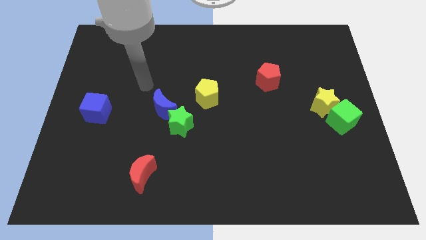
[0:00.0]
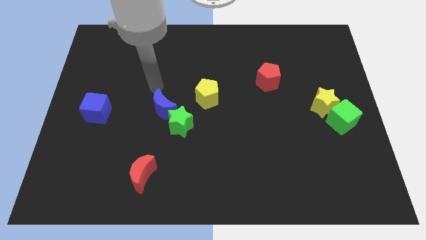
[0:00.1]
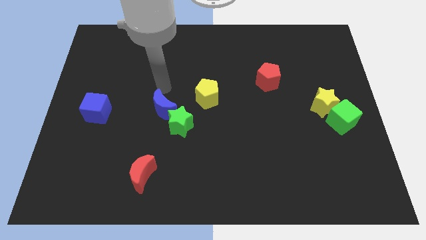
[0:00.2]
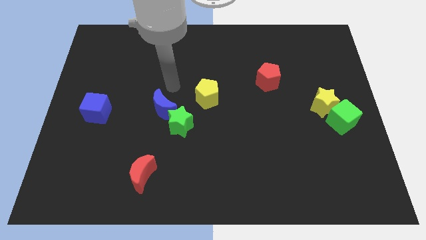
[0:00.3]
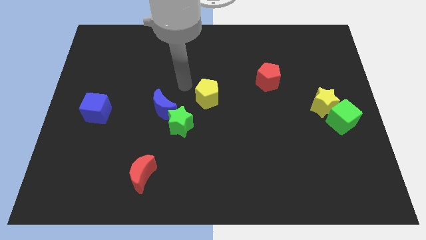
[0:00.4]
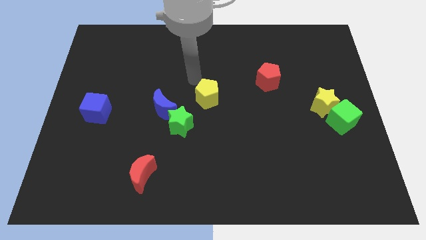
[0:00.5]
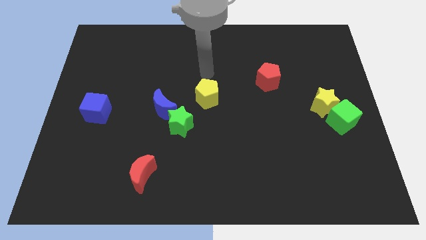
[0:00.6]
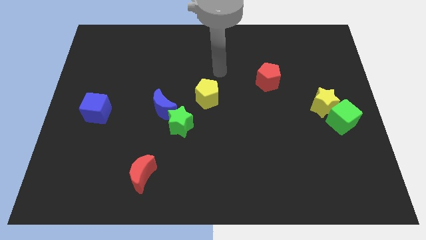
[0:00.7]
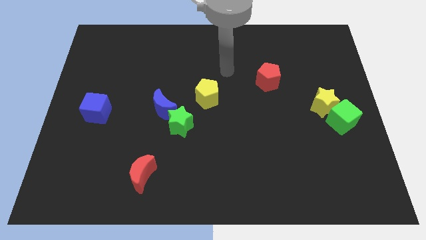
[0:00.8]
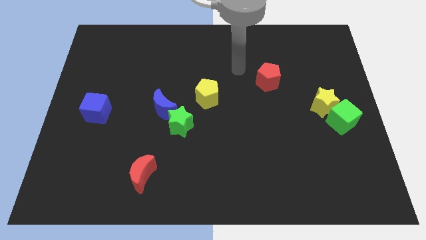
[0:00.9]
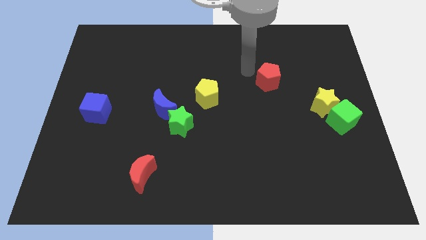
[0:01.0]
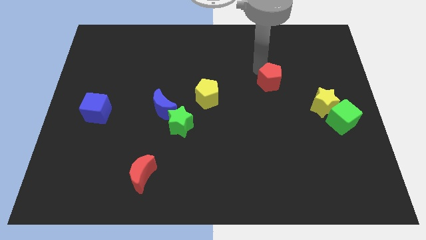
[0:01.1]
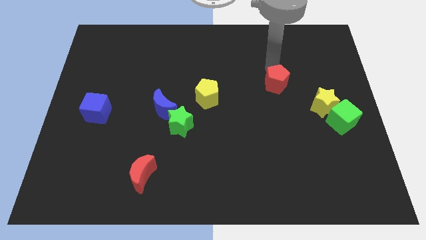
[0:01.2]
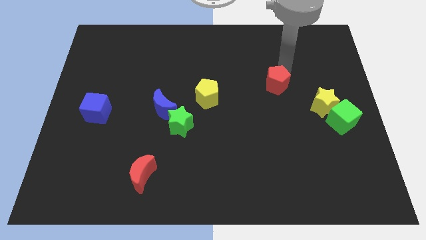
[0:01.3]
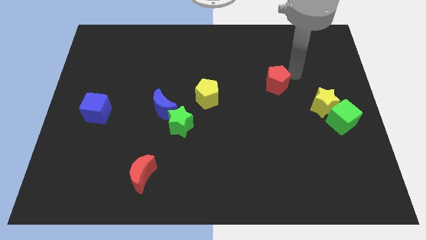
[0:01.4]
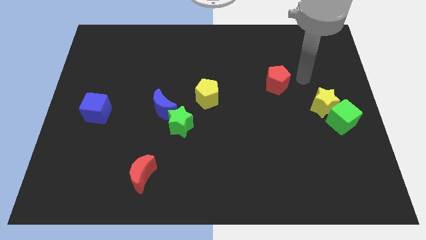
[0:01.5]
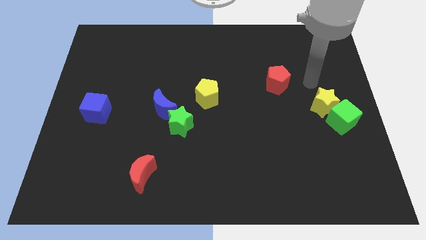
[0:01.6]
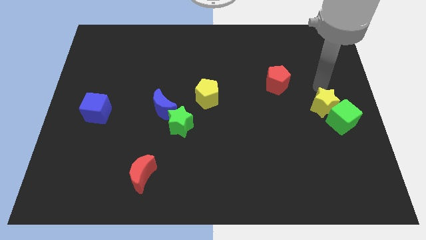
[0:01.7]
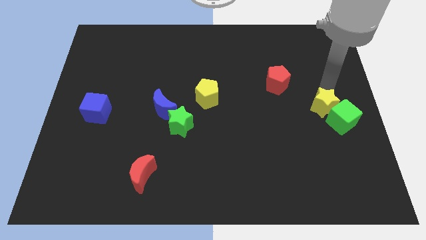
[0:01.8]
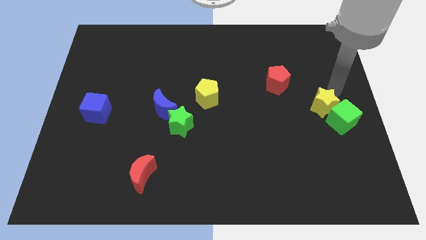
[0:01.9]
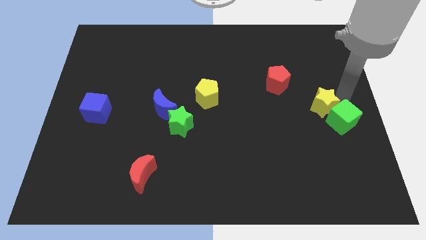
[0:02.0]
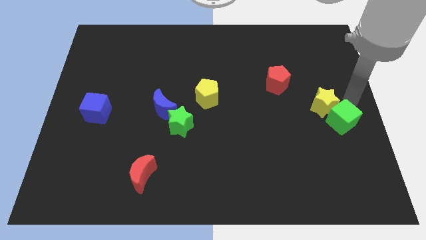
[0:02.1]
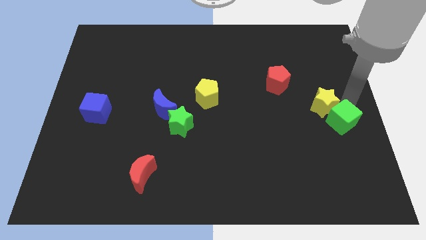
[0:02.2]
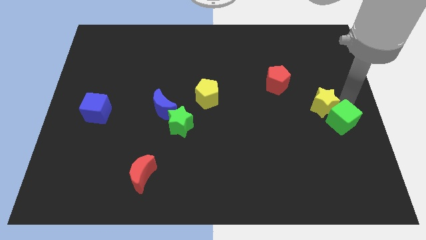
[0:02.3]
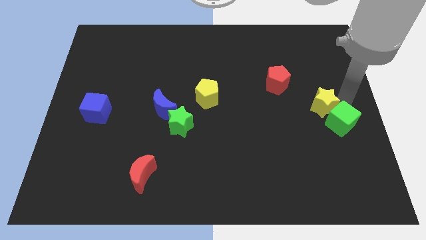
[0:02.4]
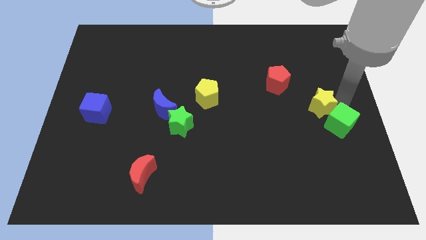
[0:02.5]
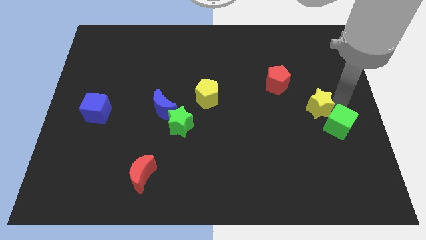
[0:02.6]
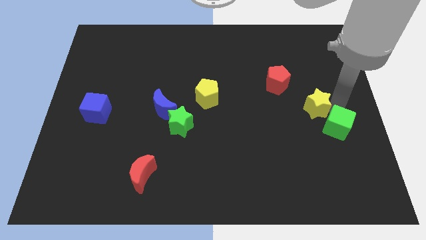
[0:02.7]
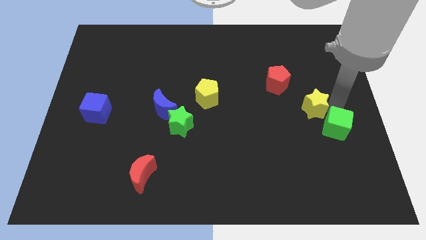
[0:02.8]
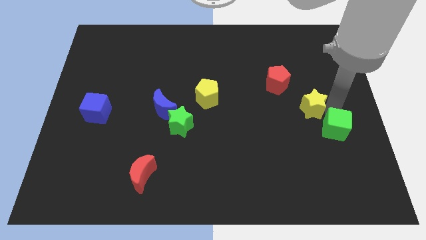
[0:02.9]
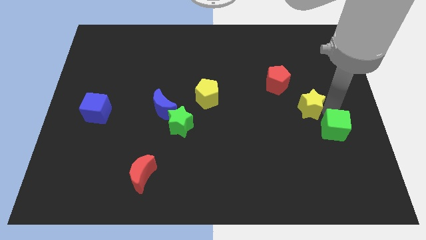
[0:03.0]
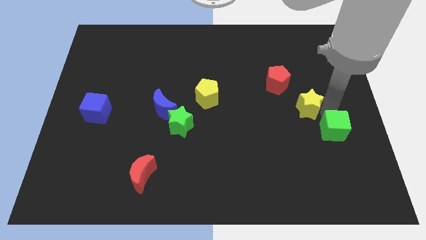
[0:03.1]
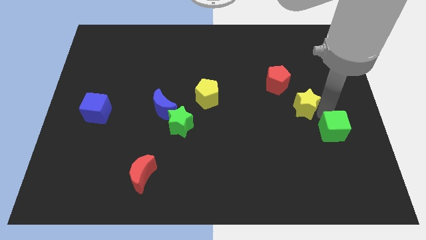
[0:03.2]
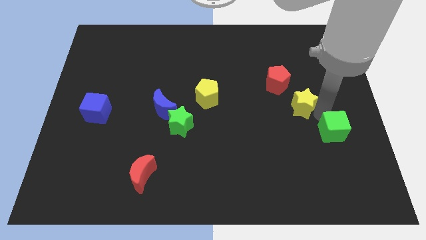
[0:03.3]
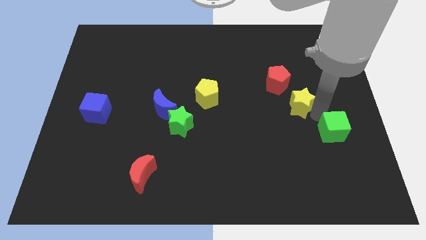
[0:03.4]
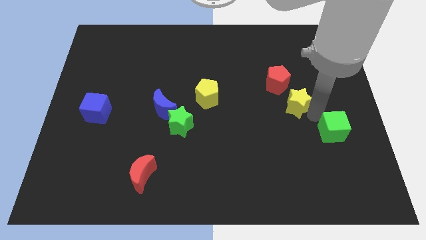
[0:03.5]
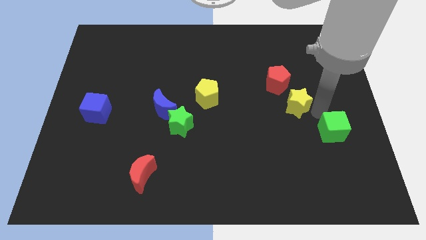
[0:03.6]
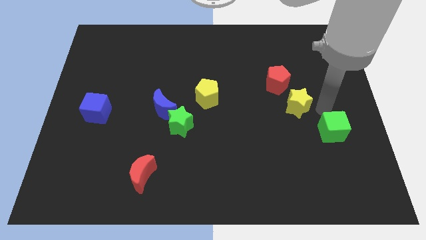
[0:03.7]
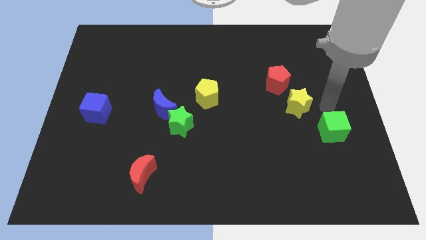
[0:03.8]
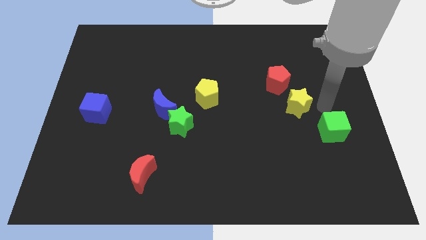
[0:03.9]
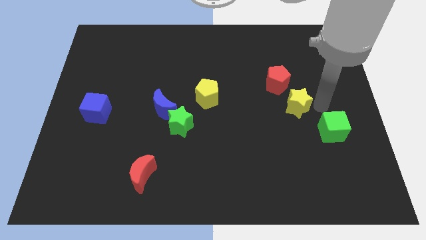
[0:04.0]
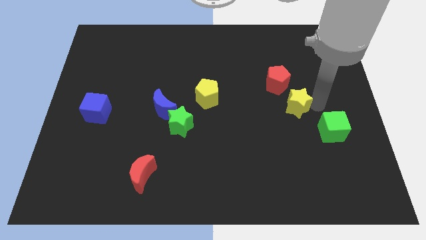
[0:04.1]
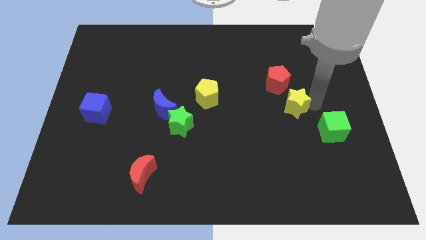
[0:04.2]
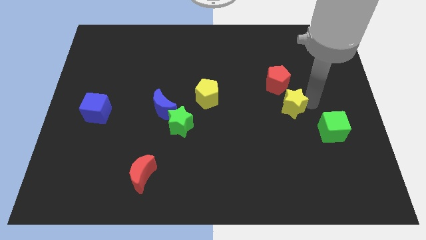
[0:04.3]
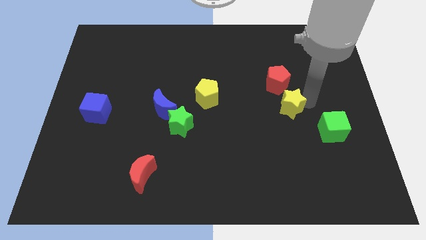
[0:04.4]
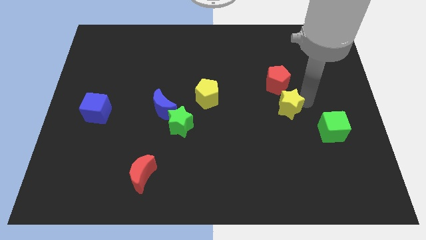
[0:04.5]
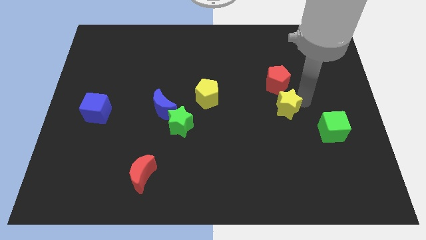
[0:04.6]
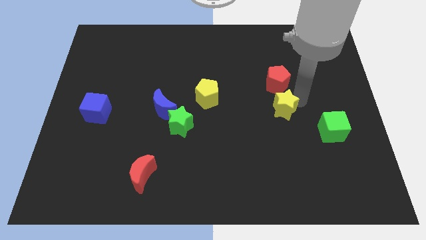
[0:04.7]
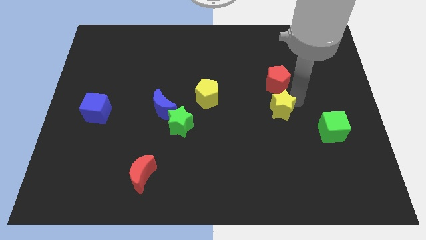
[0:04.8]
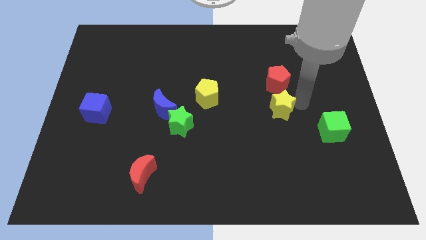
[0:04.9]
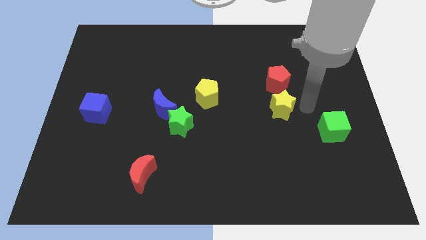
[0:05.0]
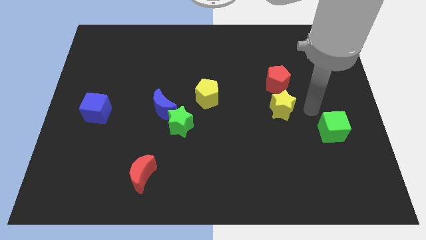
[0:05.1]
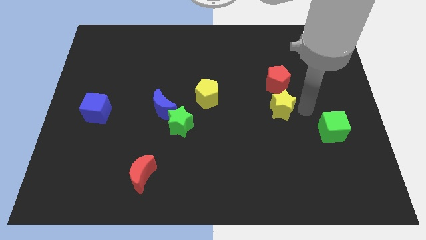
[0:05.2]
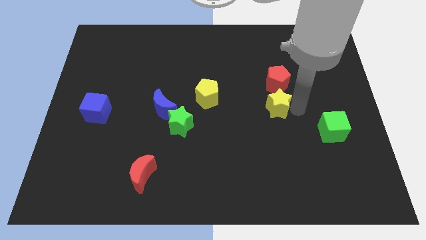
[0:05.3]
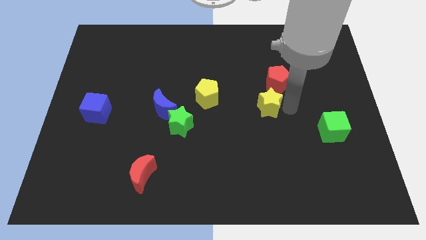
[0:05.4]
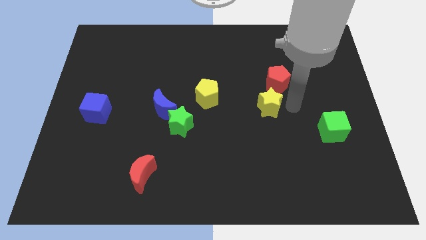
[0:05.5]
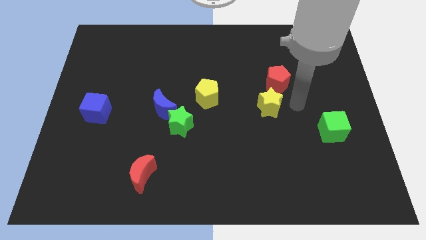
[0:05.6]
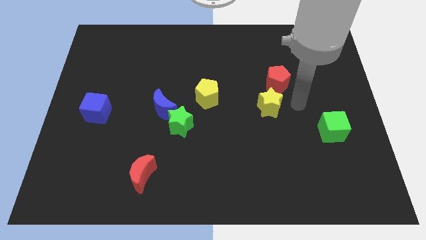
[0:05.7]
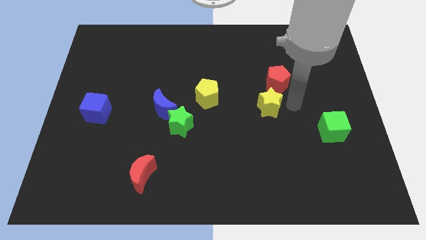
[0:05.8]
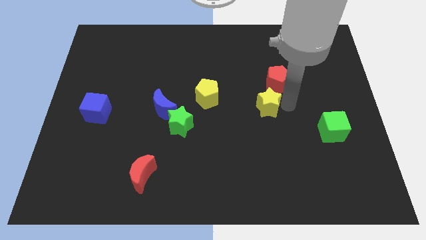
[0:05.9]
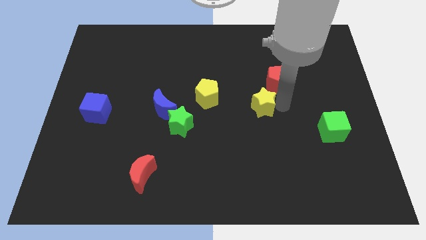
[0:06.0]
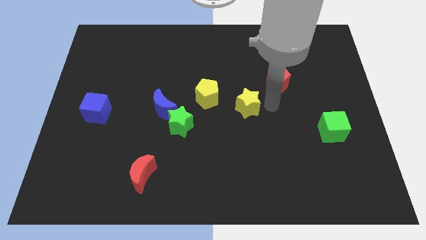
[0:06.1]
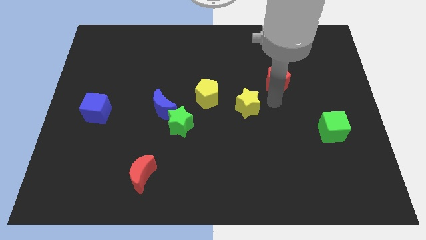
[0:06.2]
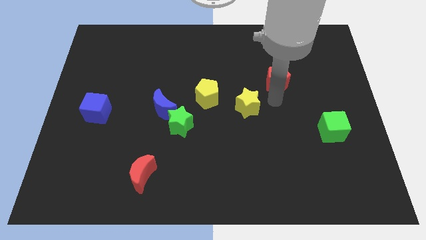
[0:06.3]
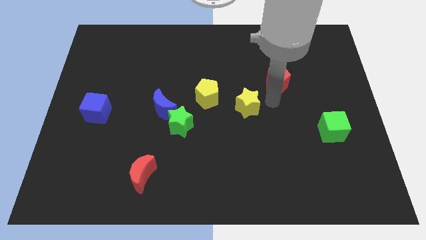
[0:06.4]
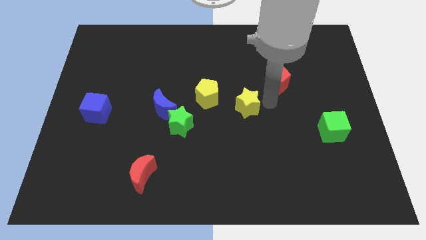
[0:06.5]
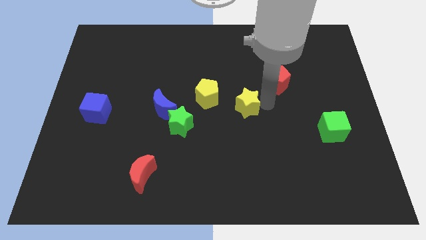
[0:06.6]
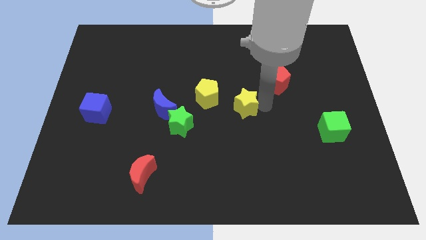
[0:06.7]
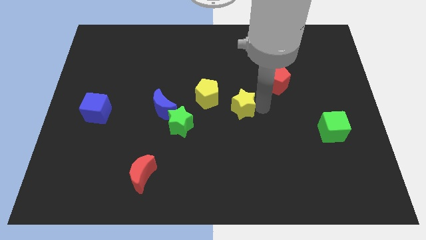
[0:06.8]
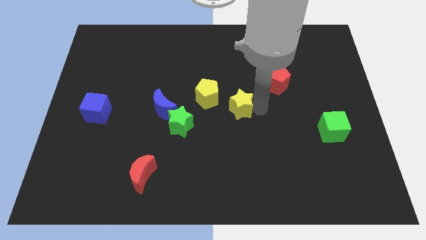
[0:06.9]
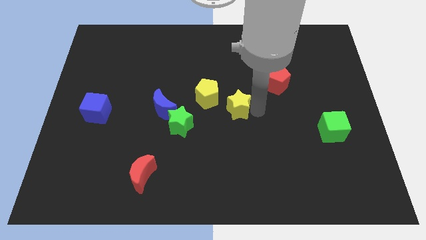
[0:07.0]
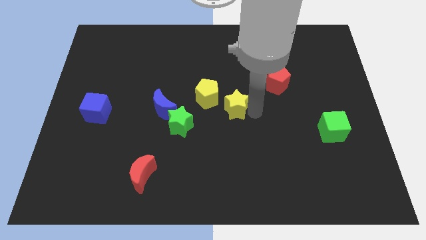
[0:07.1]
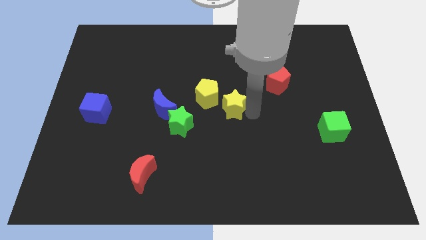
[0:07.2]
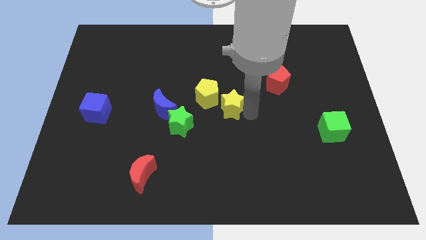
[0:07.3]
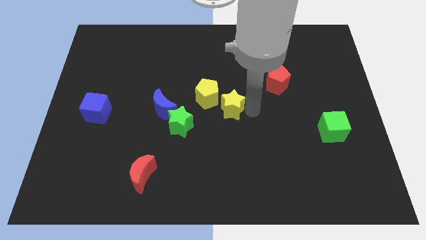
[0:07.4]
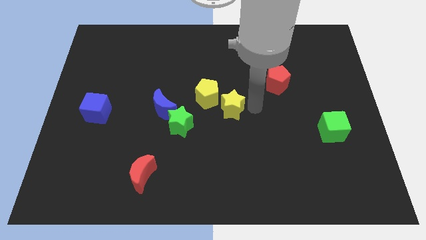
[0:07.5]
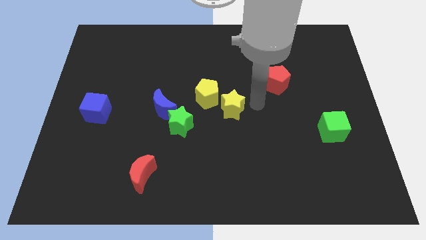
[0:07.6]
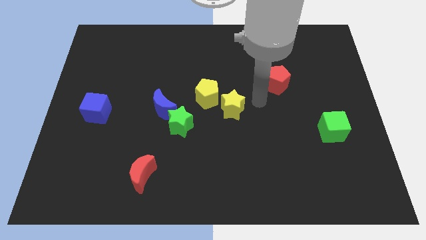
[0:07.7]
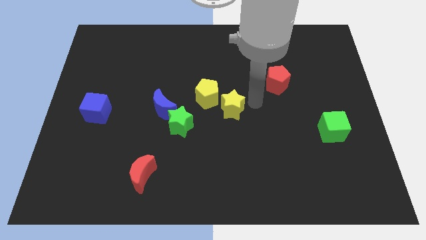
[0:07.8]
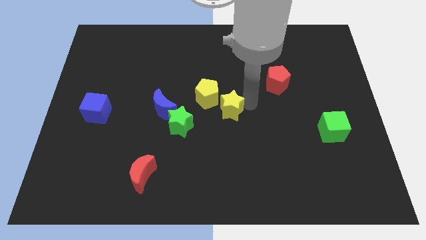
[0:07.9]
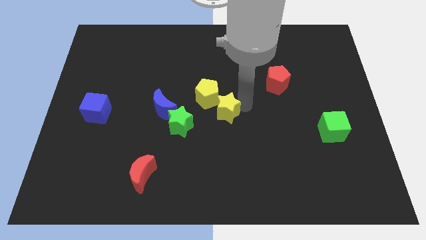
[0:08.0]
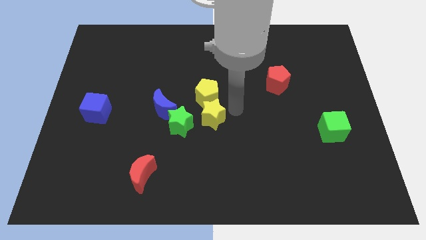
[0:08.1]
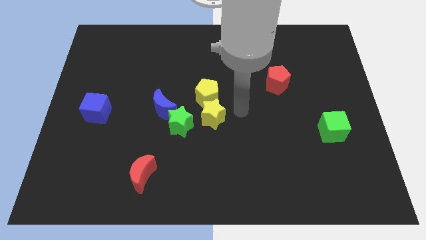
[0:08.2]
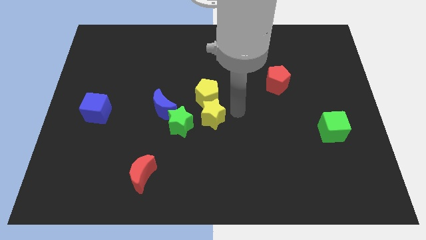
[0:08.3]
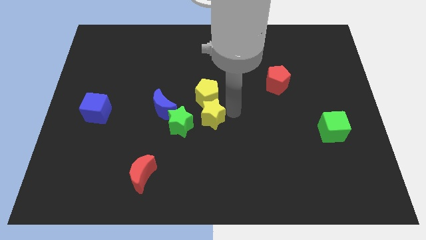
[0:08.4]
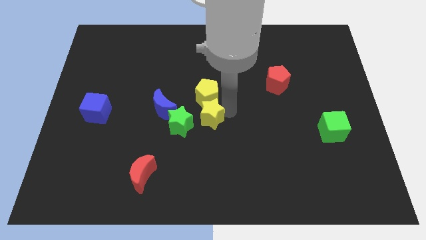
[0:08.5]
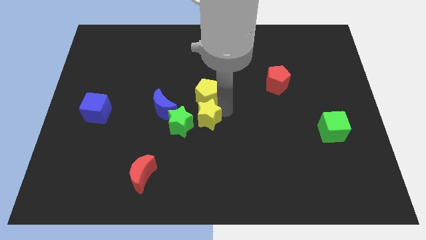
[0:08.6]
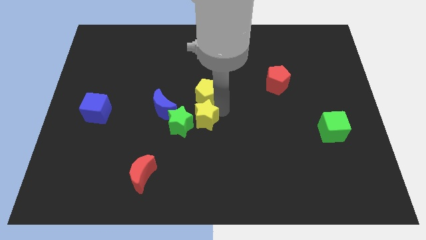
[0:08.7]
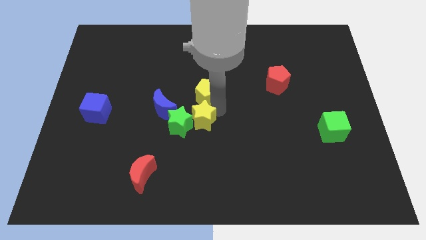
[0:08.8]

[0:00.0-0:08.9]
move the yellow star to the green star
